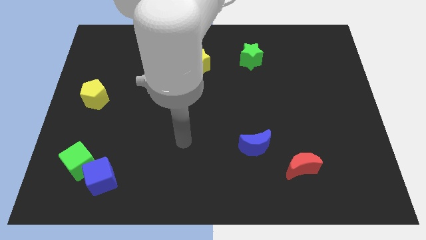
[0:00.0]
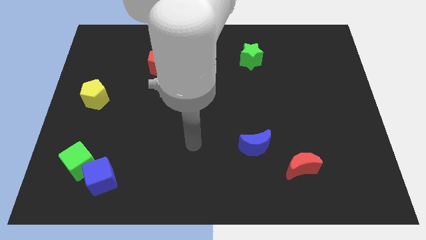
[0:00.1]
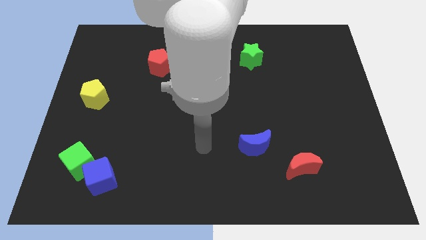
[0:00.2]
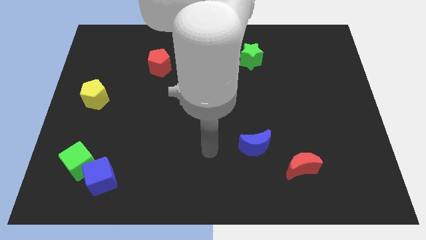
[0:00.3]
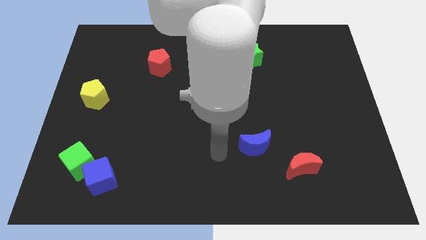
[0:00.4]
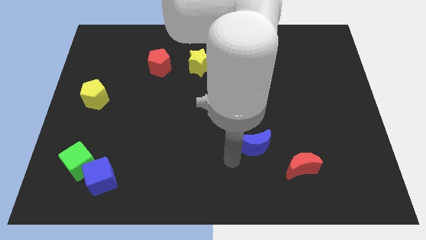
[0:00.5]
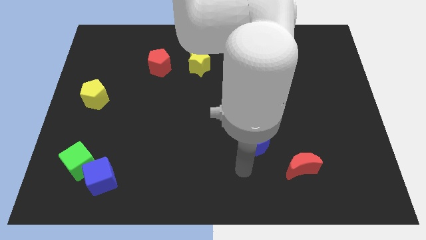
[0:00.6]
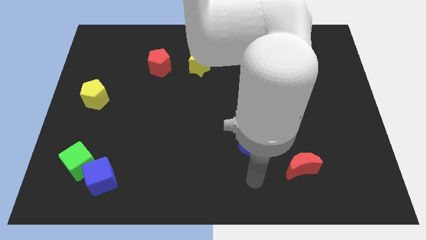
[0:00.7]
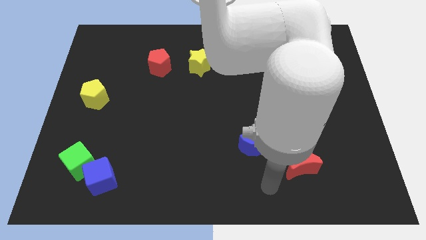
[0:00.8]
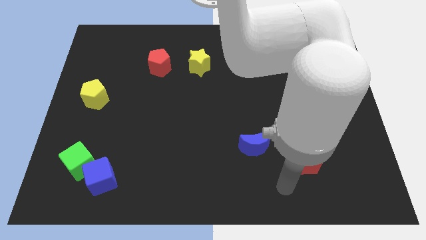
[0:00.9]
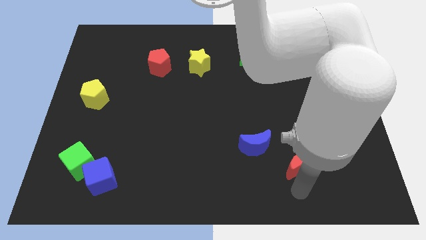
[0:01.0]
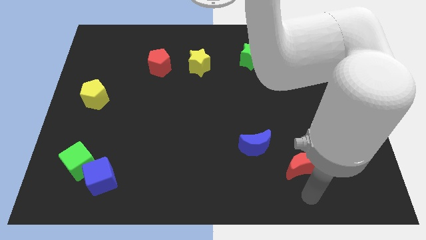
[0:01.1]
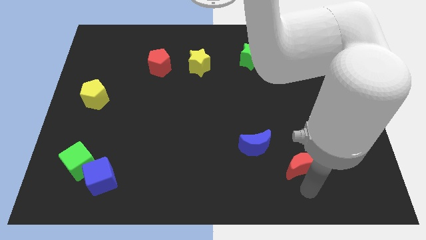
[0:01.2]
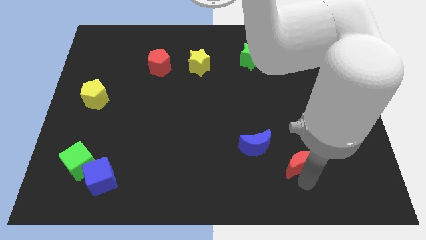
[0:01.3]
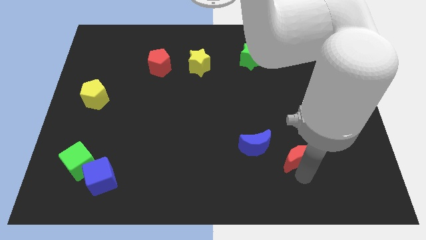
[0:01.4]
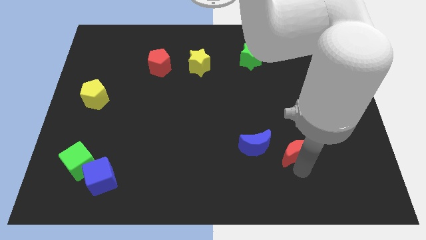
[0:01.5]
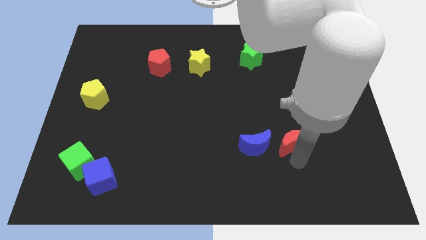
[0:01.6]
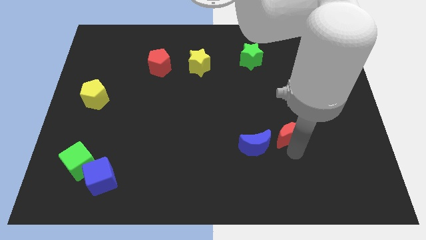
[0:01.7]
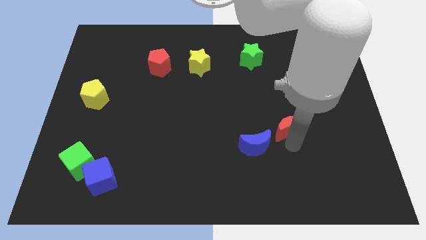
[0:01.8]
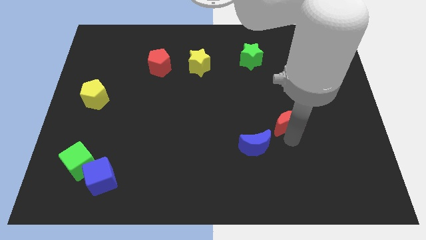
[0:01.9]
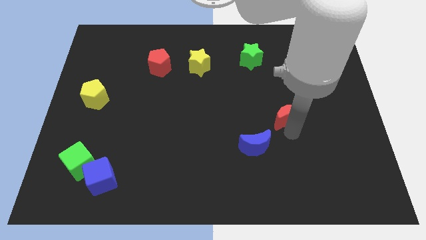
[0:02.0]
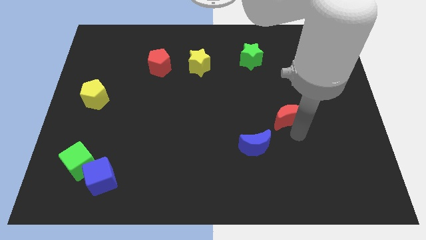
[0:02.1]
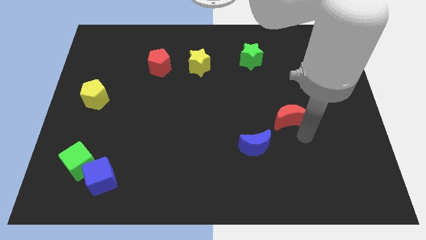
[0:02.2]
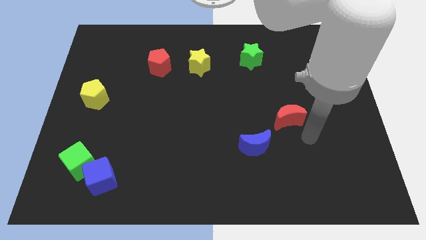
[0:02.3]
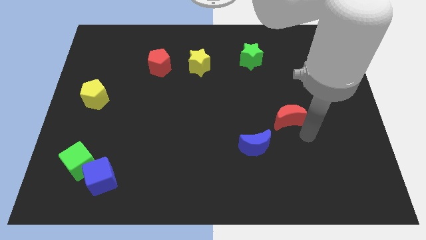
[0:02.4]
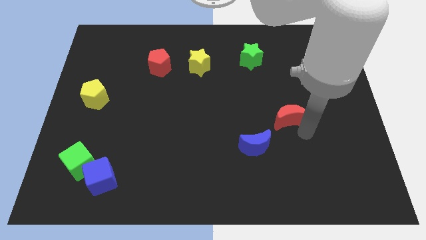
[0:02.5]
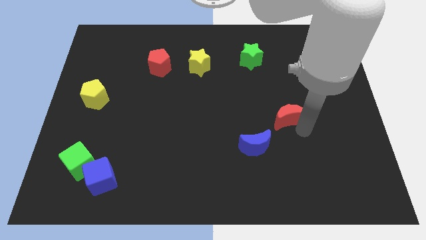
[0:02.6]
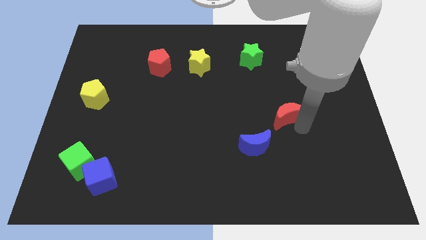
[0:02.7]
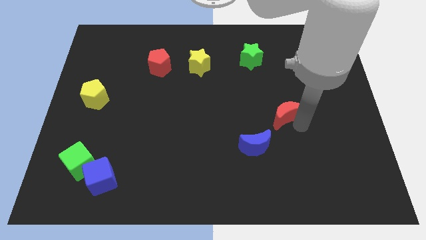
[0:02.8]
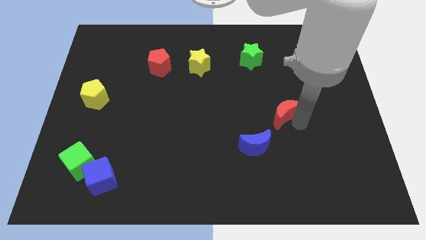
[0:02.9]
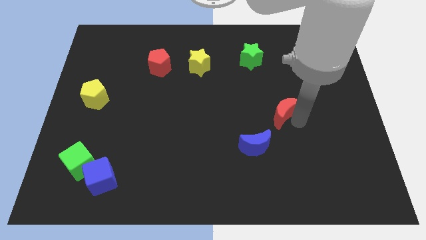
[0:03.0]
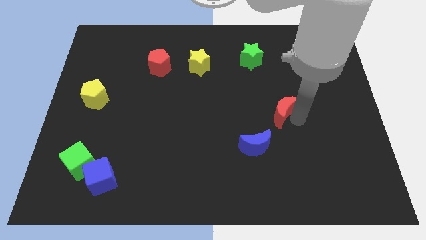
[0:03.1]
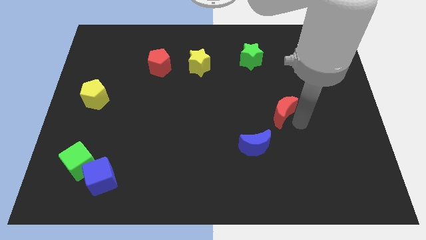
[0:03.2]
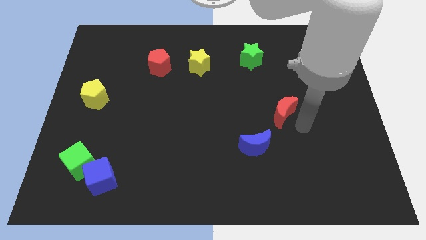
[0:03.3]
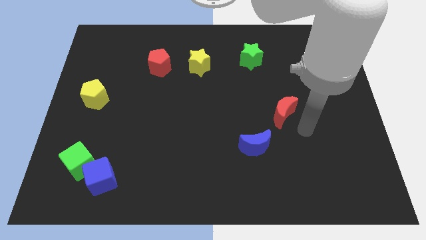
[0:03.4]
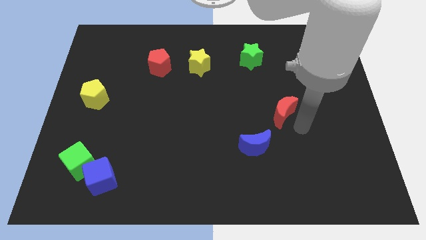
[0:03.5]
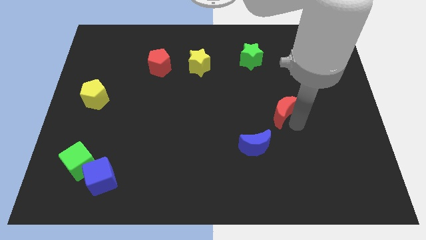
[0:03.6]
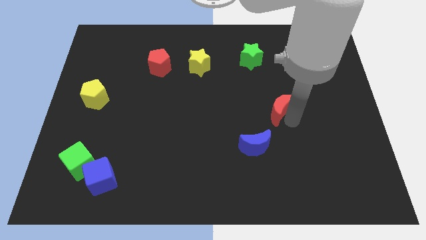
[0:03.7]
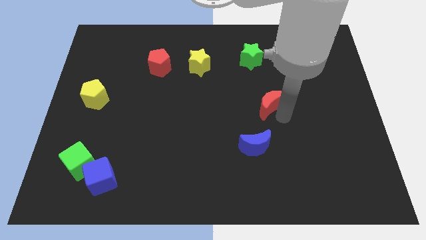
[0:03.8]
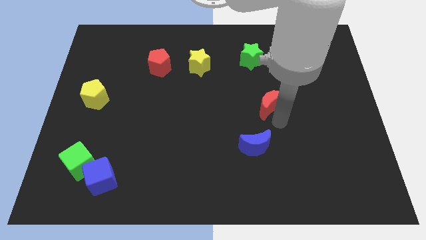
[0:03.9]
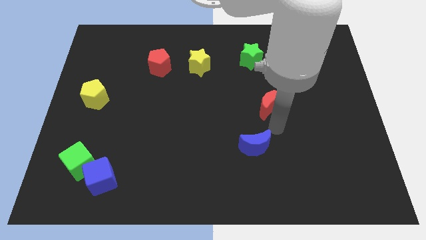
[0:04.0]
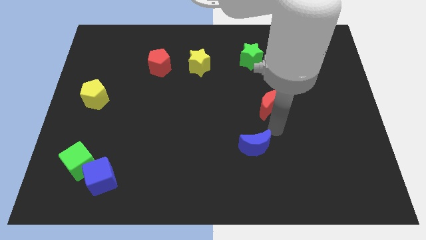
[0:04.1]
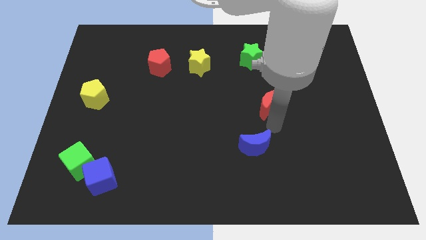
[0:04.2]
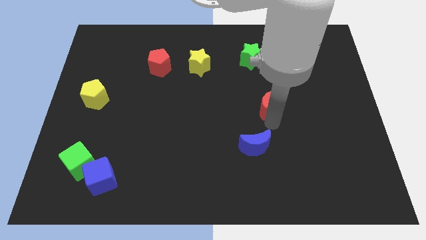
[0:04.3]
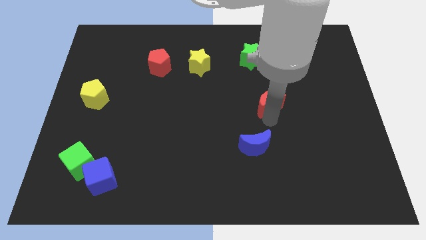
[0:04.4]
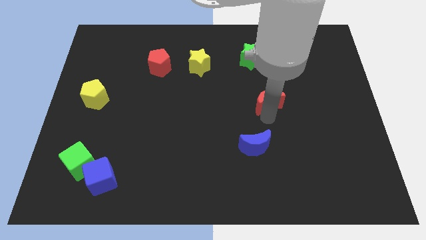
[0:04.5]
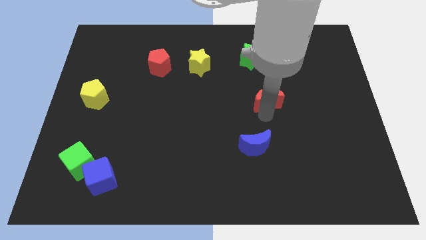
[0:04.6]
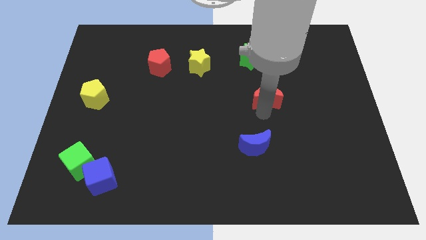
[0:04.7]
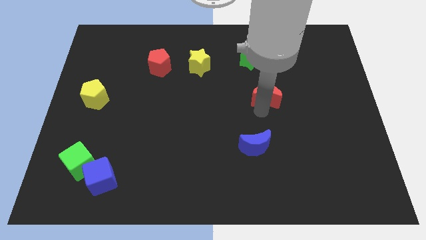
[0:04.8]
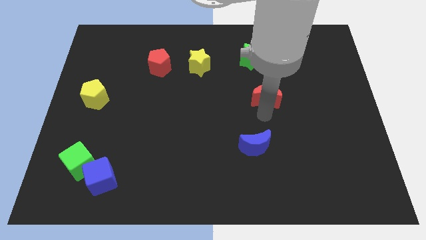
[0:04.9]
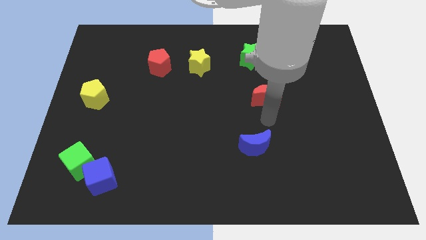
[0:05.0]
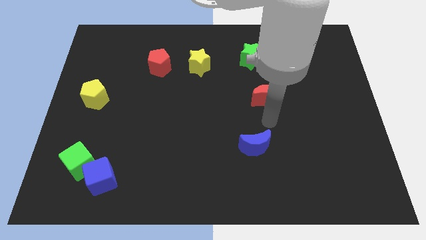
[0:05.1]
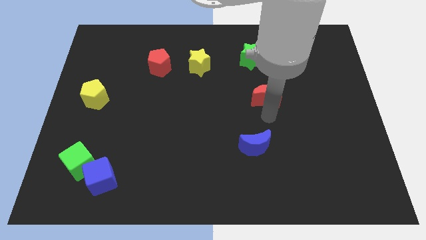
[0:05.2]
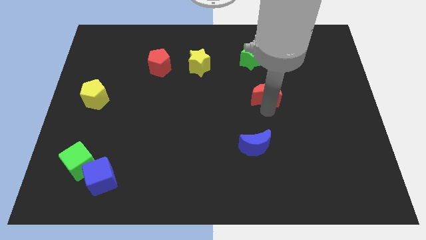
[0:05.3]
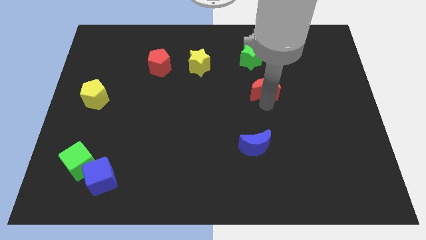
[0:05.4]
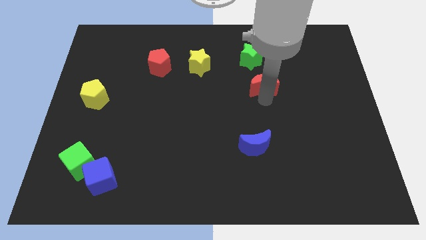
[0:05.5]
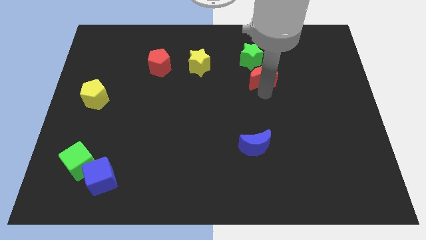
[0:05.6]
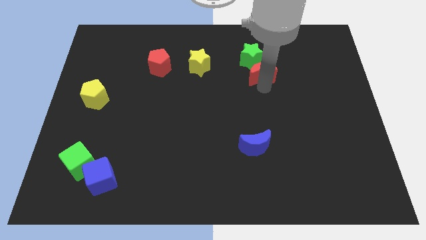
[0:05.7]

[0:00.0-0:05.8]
move the red moon to the green star

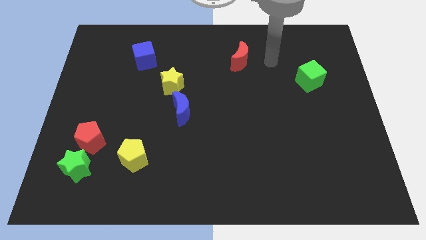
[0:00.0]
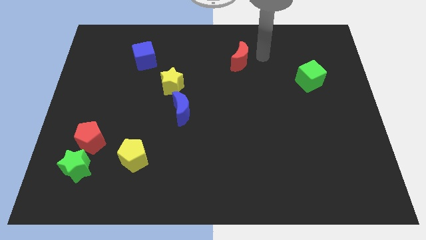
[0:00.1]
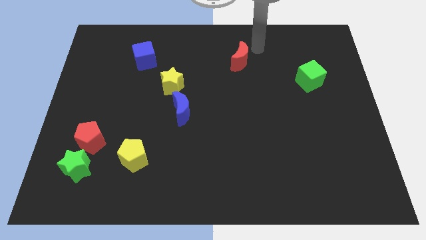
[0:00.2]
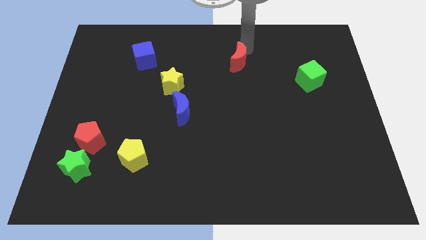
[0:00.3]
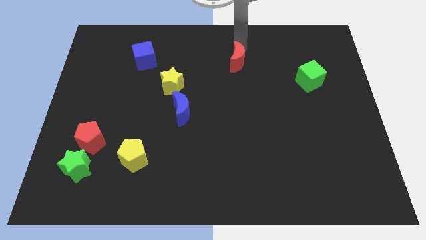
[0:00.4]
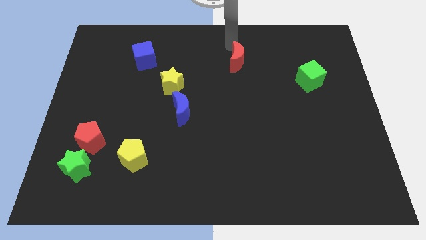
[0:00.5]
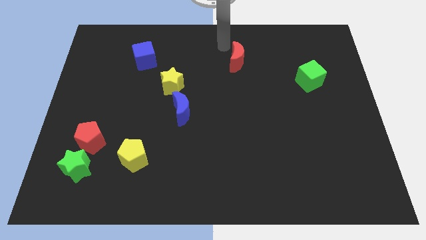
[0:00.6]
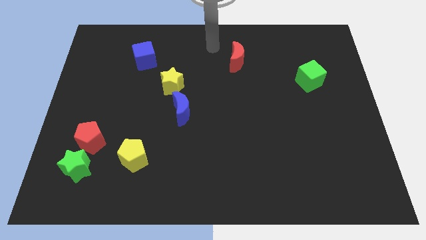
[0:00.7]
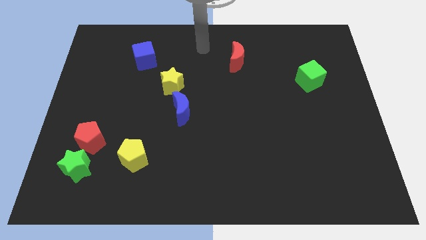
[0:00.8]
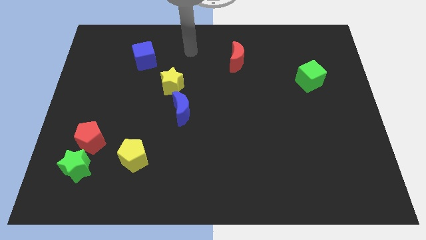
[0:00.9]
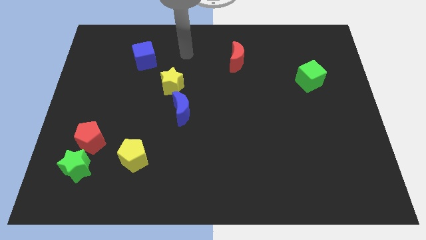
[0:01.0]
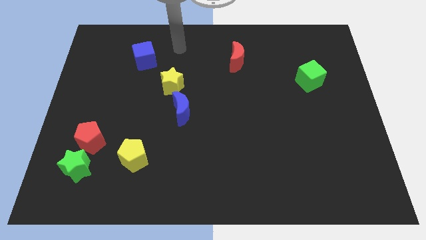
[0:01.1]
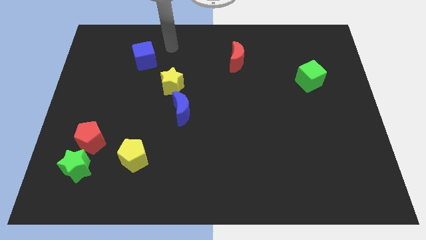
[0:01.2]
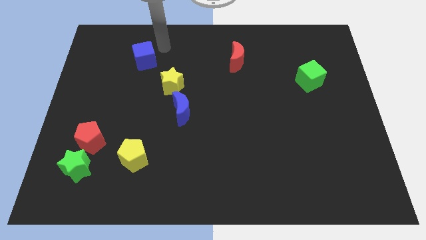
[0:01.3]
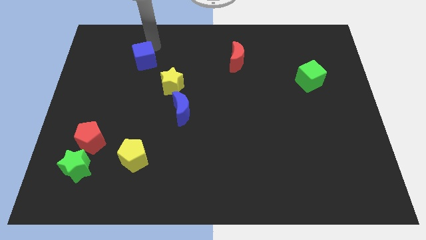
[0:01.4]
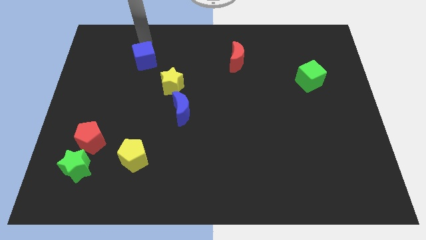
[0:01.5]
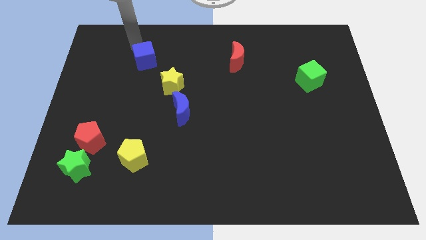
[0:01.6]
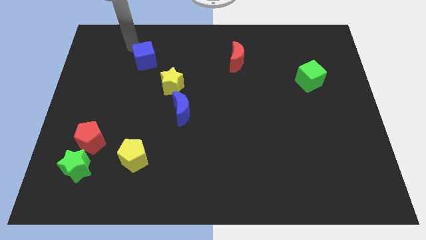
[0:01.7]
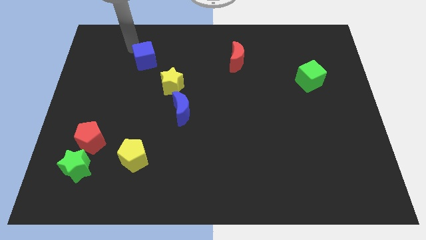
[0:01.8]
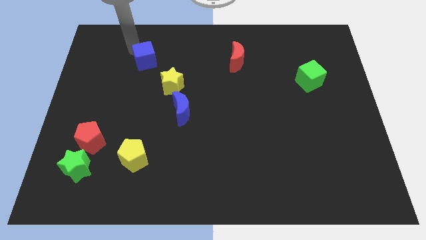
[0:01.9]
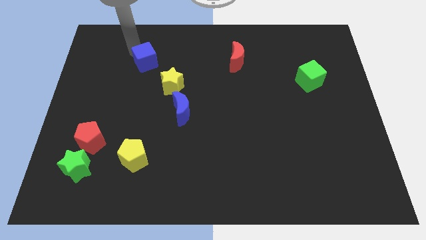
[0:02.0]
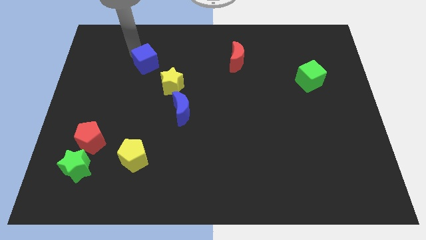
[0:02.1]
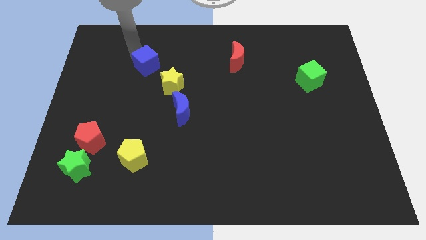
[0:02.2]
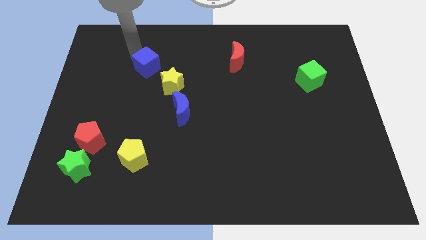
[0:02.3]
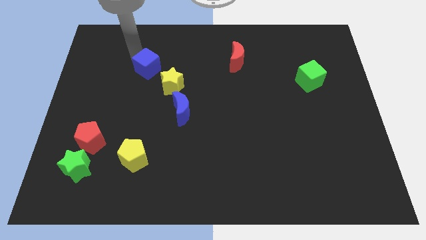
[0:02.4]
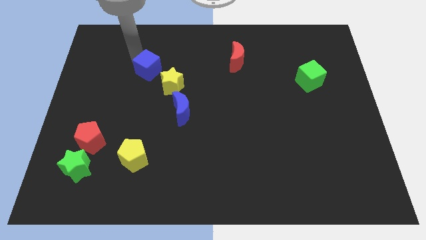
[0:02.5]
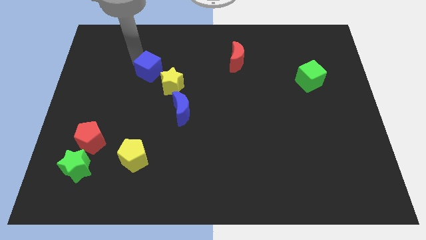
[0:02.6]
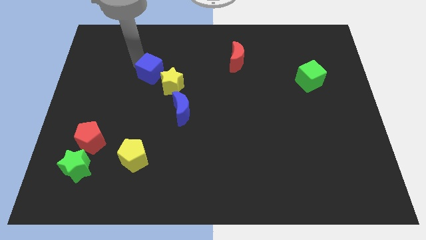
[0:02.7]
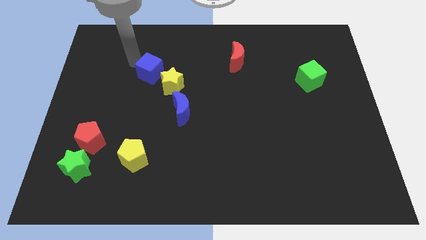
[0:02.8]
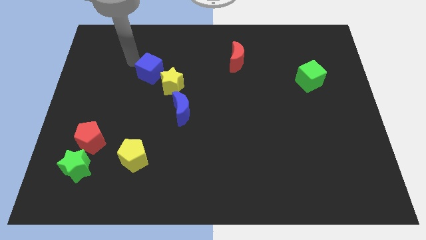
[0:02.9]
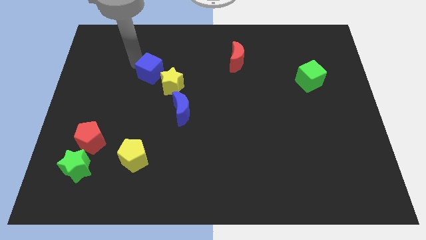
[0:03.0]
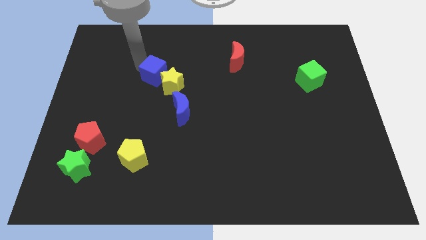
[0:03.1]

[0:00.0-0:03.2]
push the blue cube next to the yellow star
